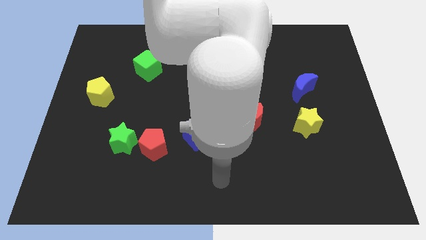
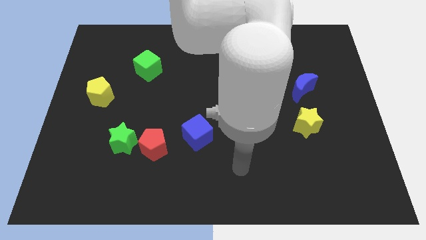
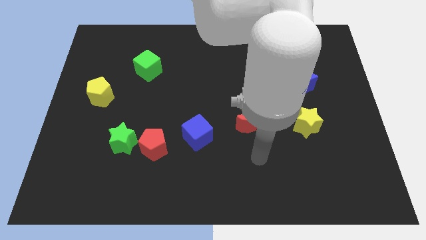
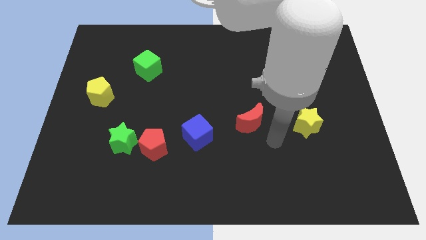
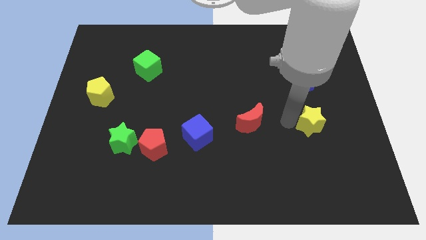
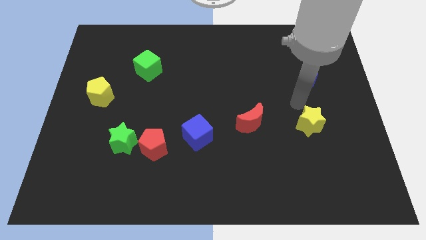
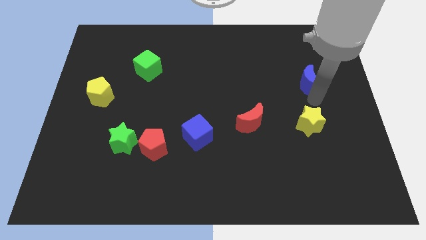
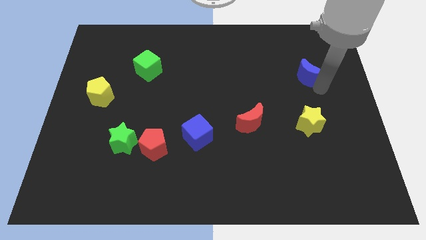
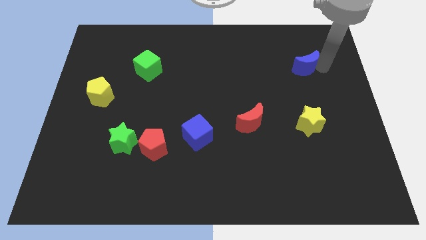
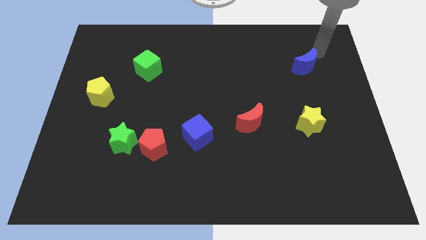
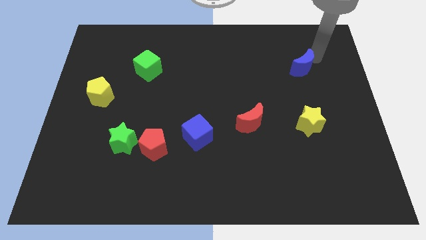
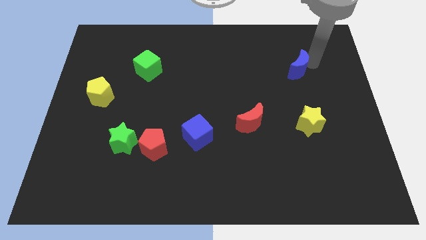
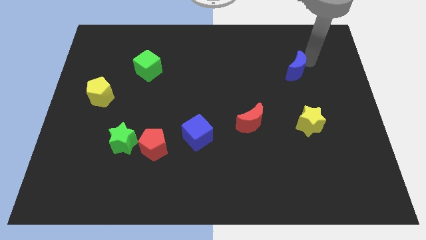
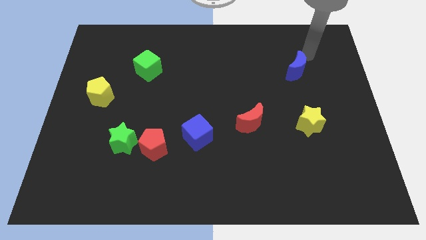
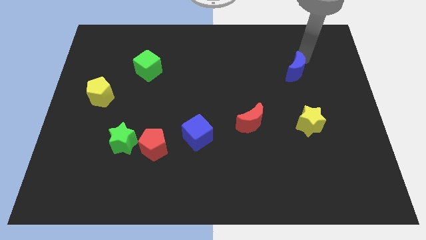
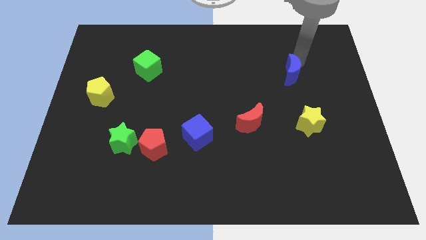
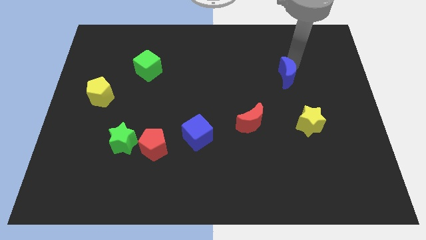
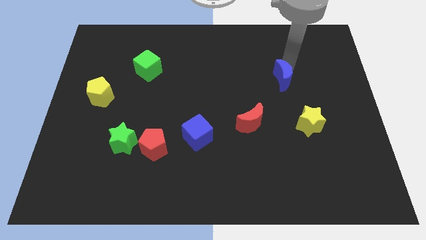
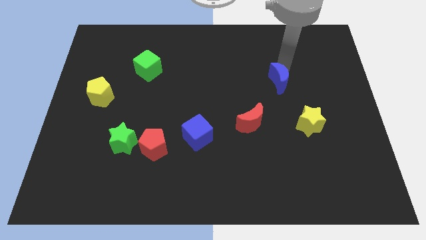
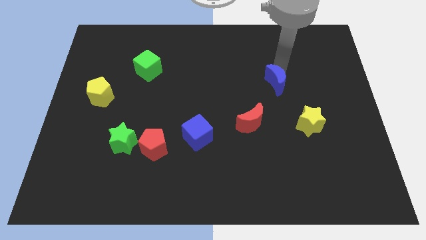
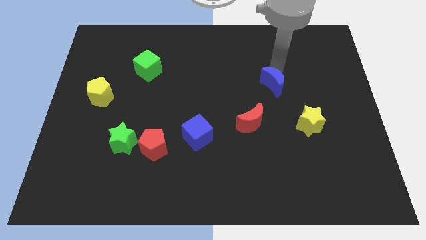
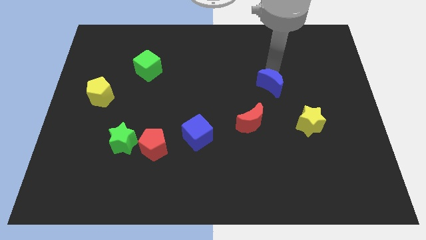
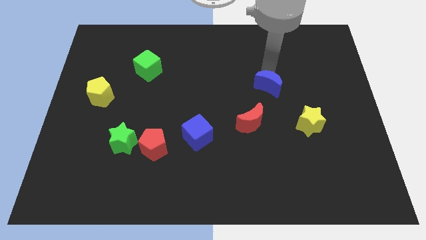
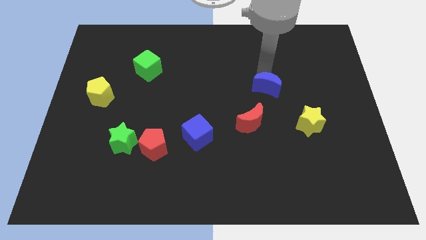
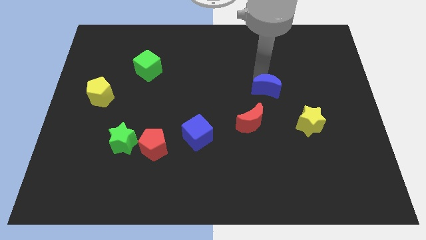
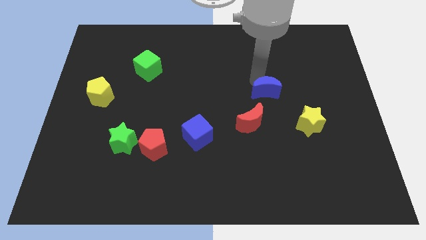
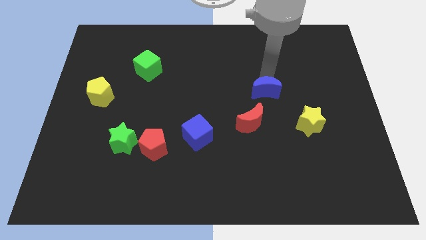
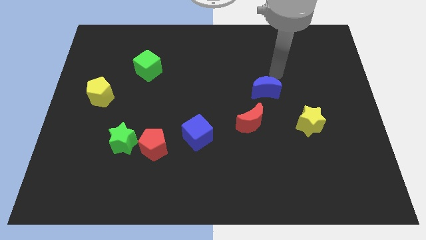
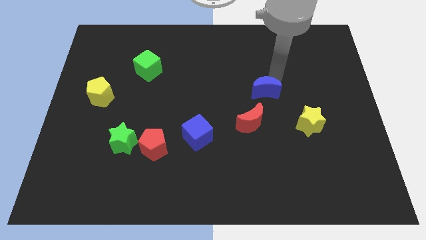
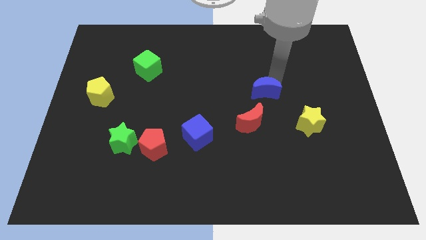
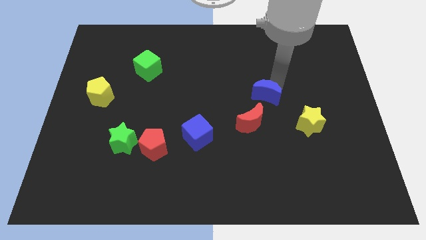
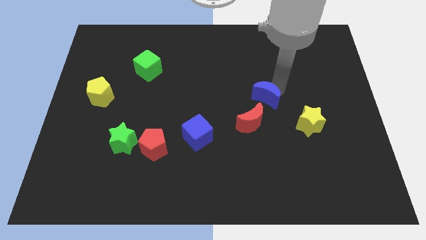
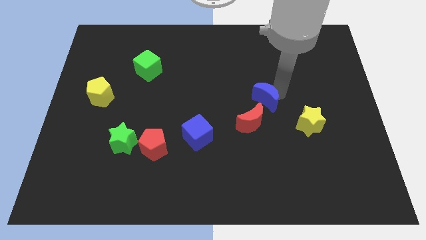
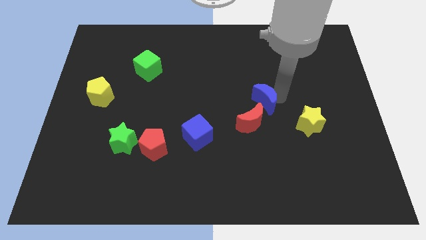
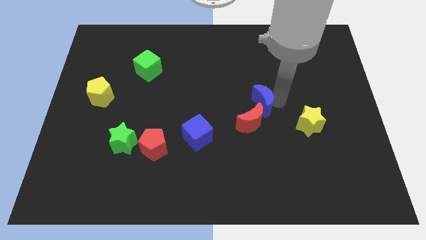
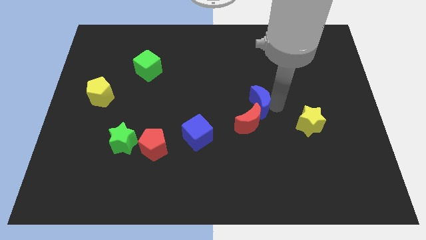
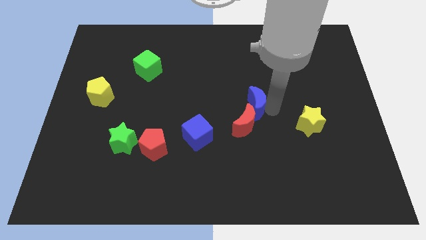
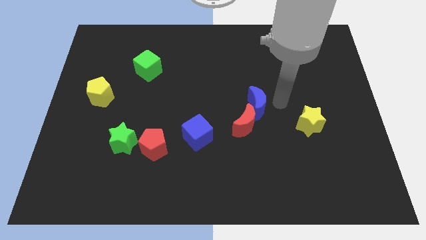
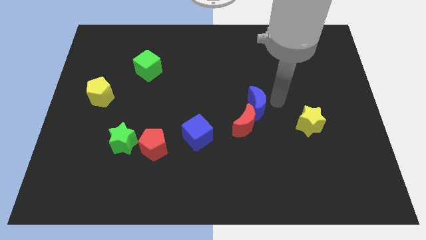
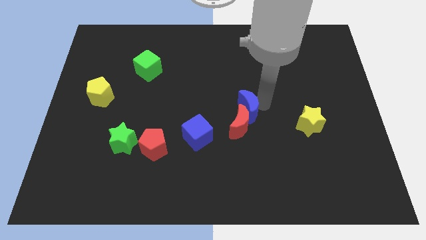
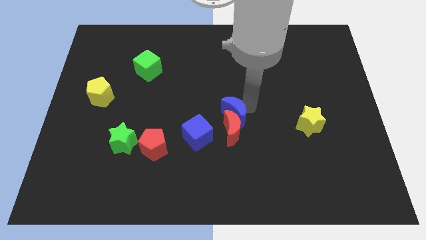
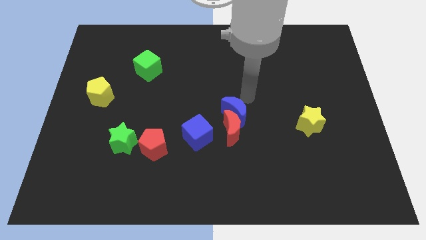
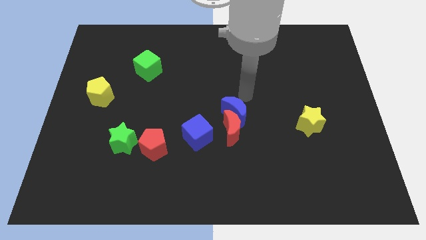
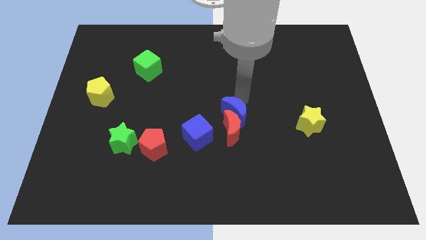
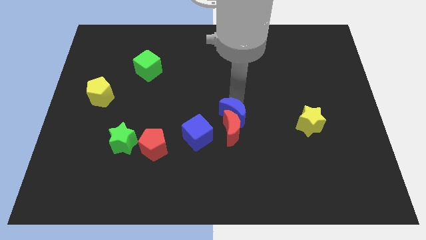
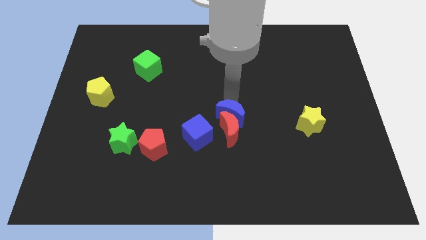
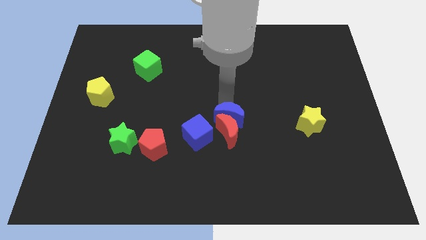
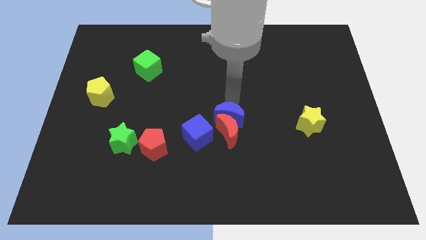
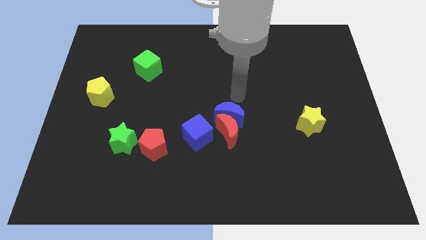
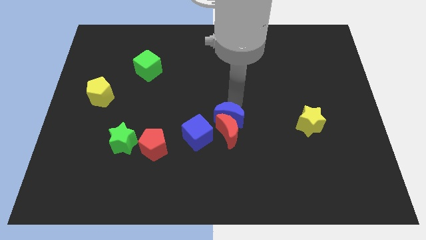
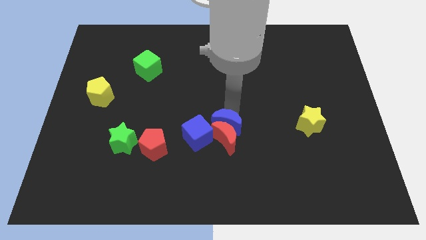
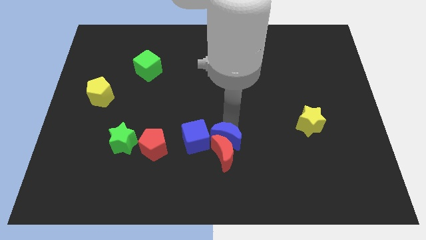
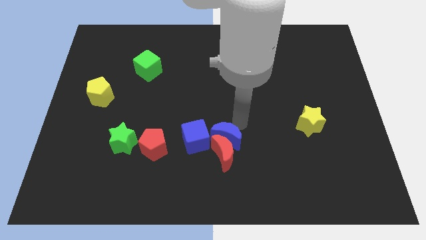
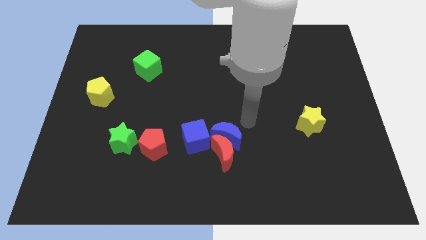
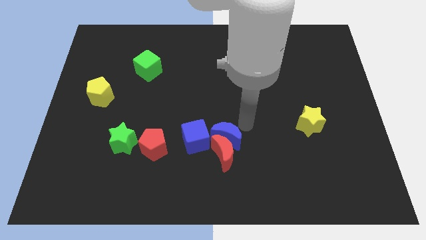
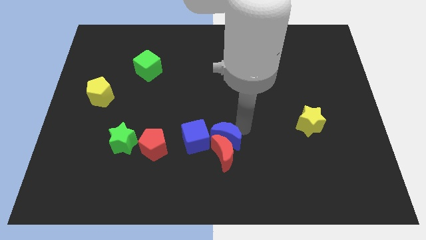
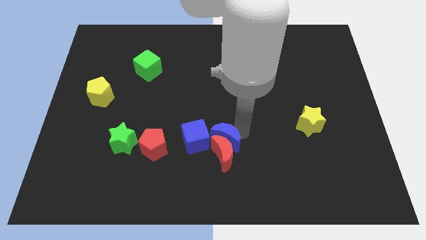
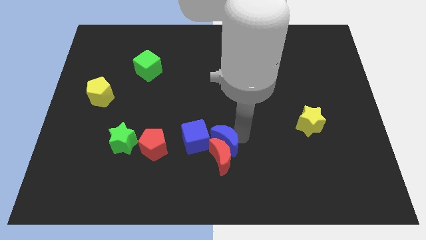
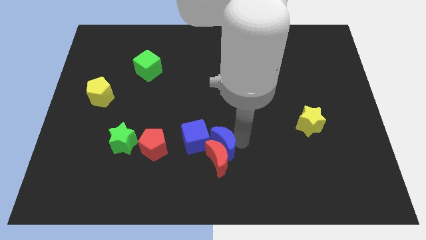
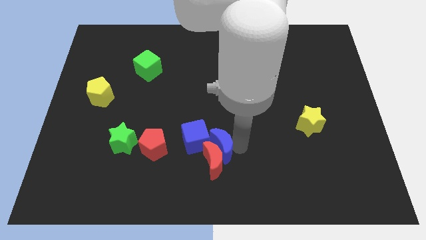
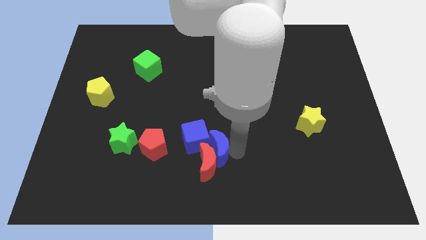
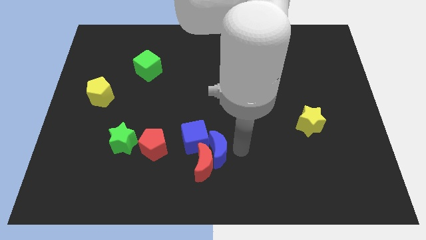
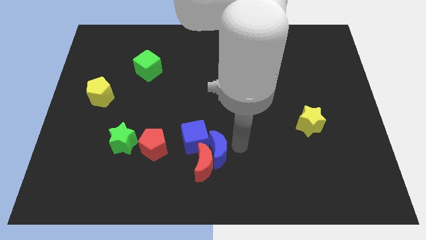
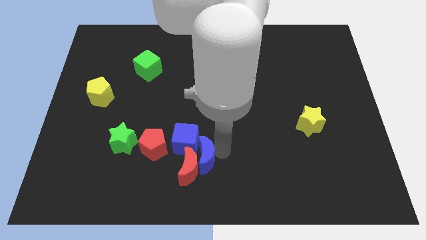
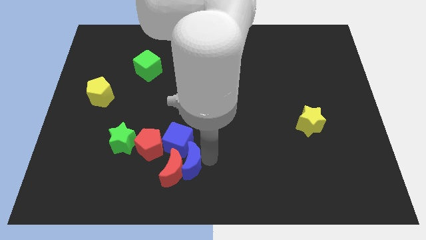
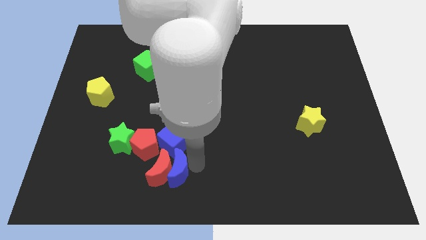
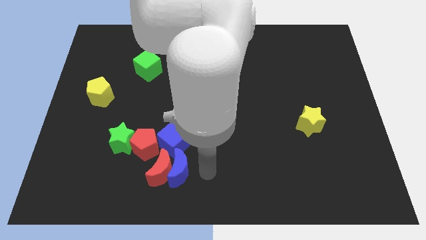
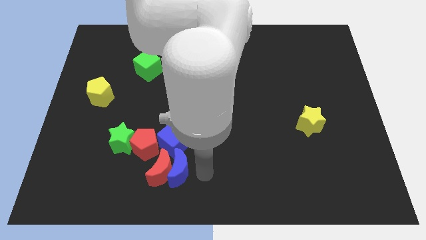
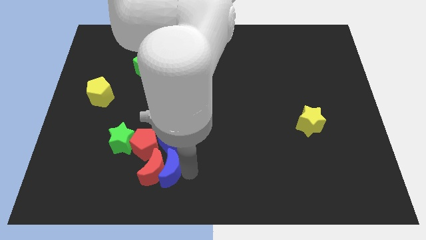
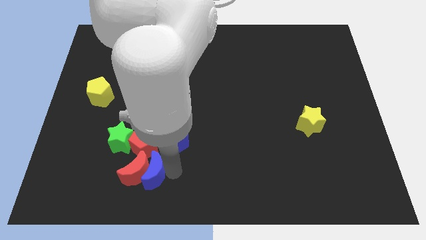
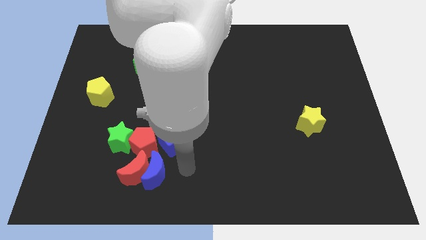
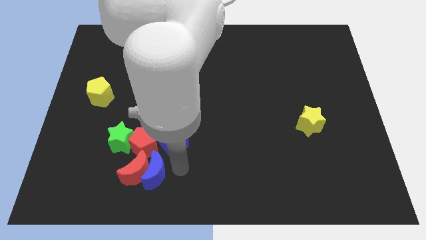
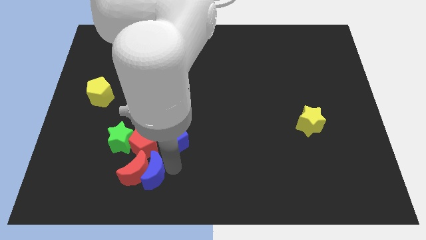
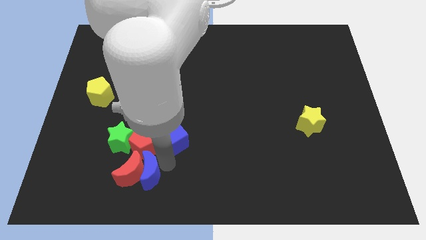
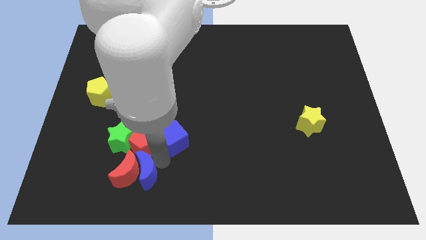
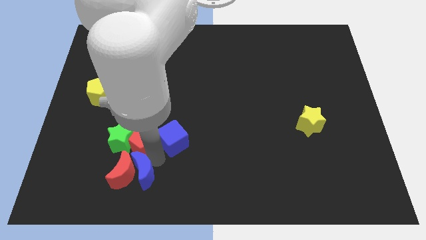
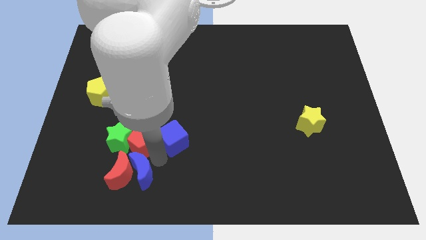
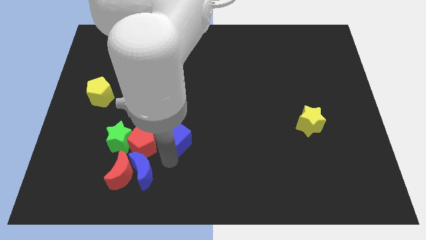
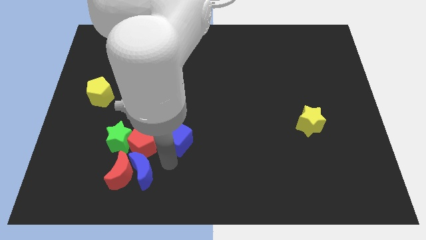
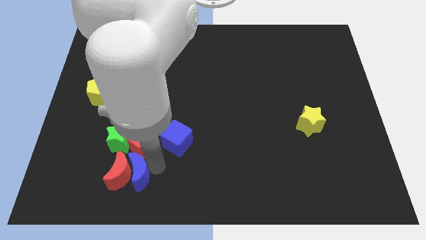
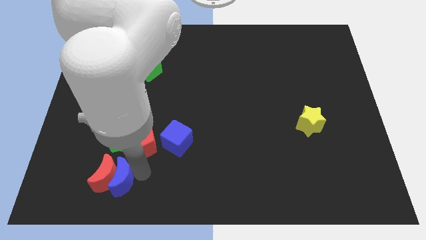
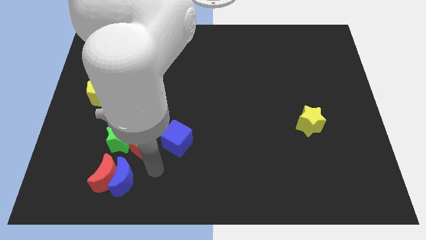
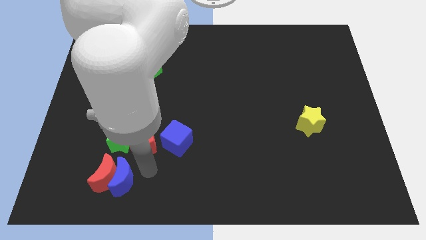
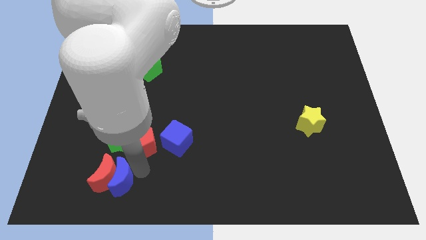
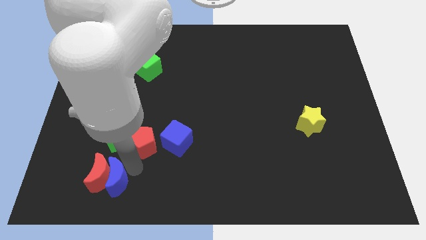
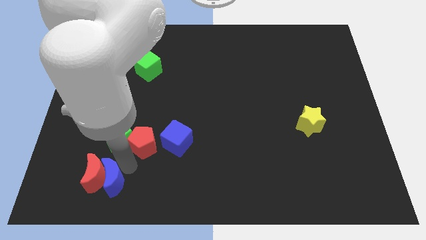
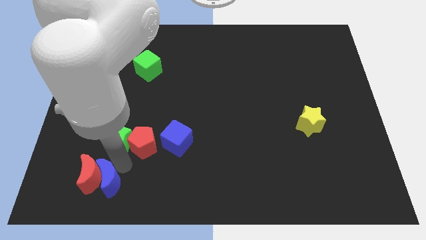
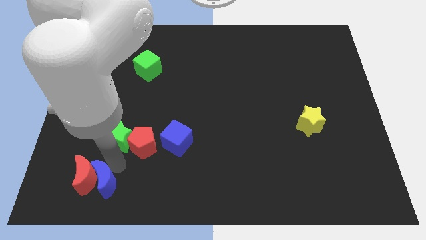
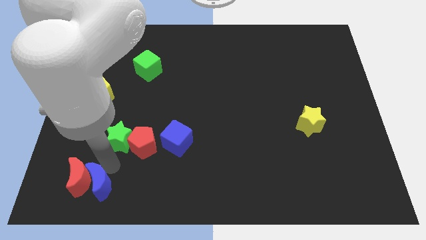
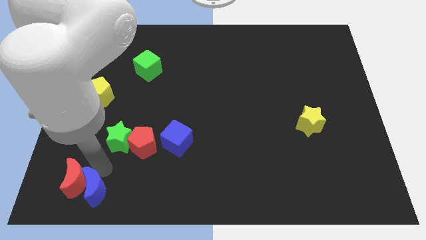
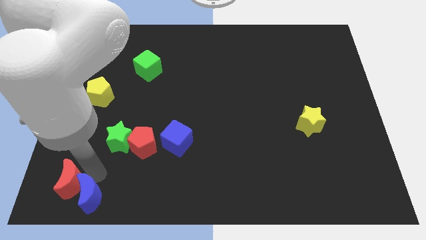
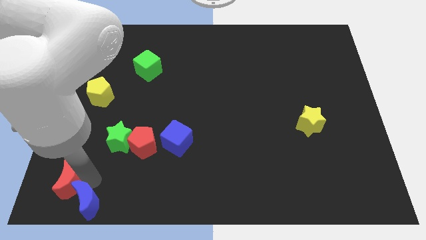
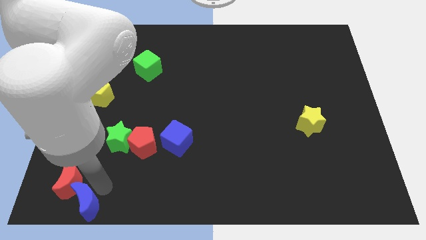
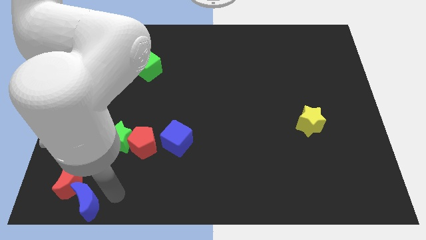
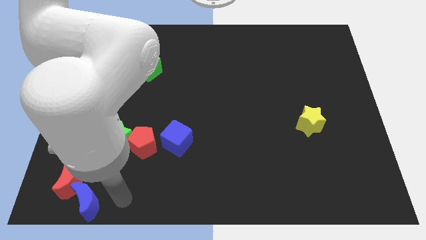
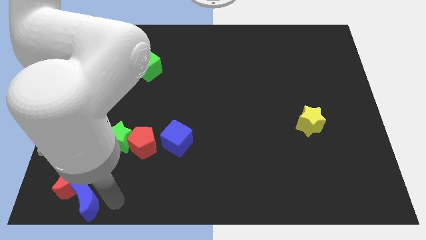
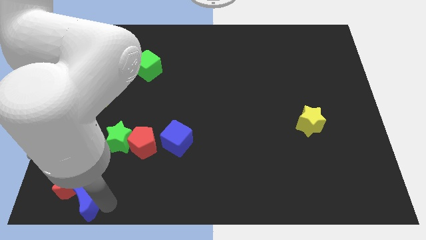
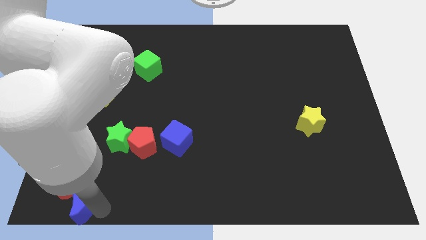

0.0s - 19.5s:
push the blue moon to the lower left corner
